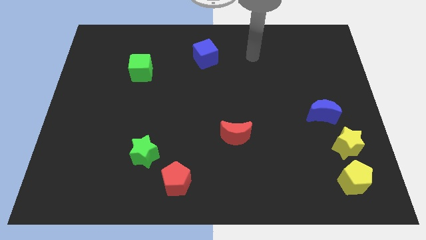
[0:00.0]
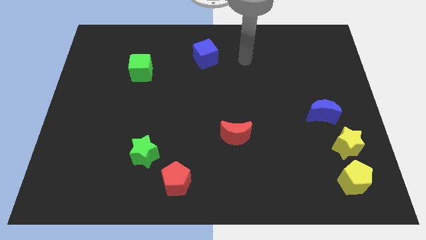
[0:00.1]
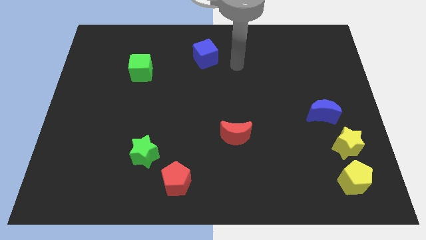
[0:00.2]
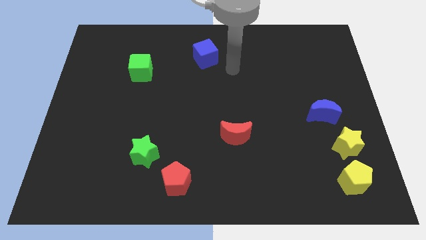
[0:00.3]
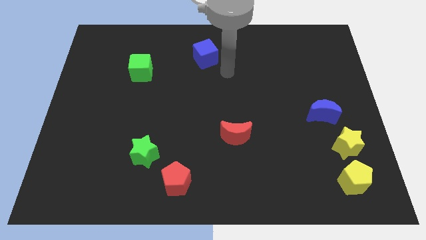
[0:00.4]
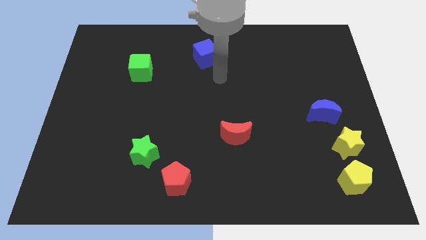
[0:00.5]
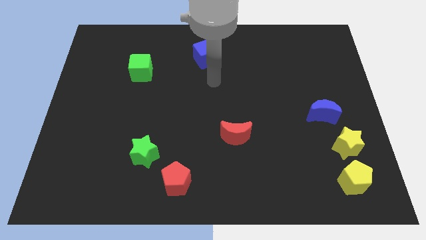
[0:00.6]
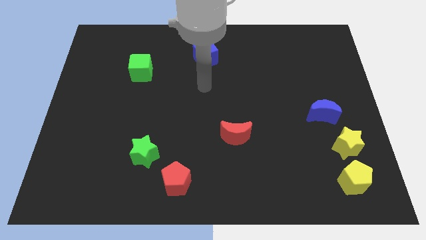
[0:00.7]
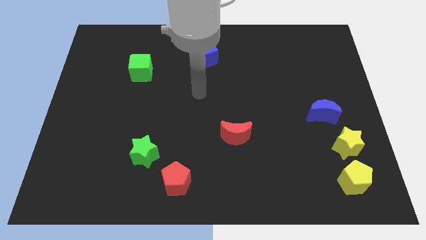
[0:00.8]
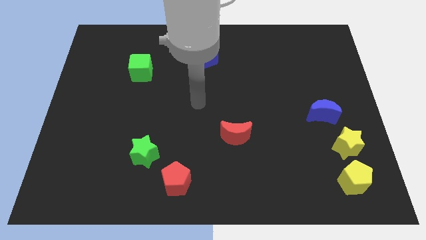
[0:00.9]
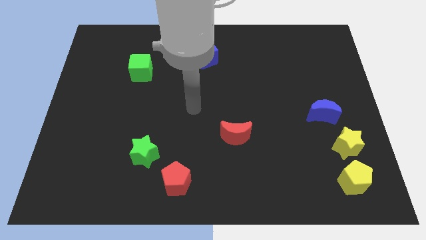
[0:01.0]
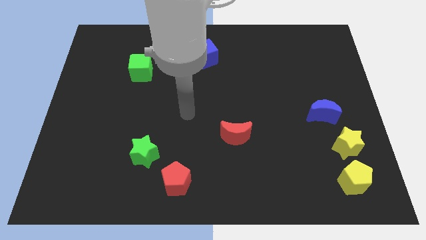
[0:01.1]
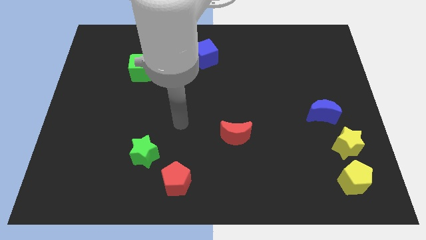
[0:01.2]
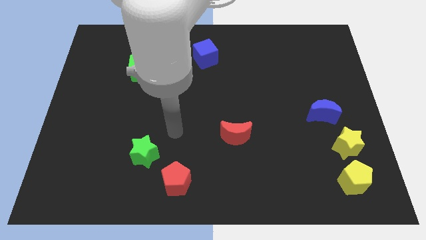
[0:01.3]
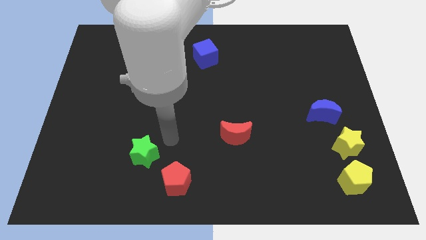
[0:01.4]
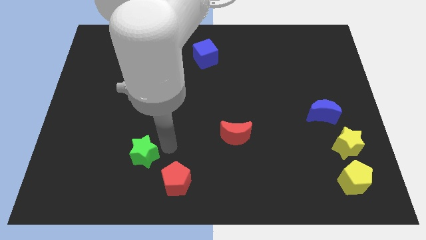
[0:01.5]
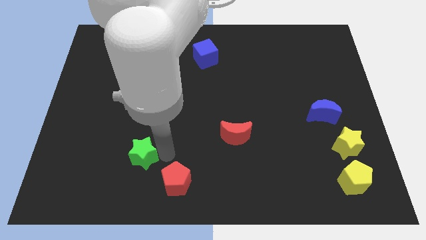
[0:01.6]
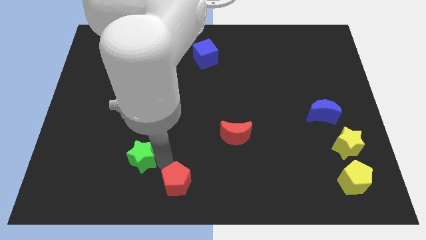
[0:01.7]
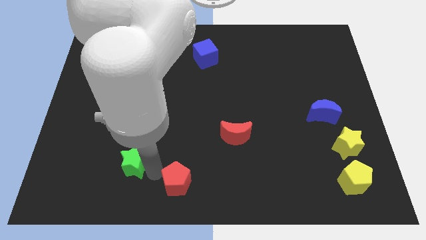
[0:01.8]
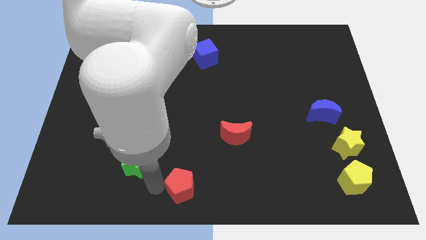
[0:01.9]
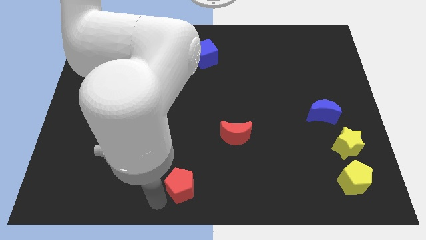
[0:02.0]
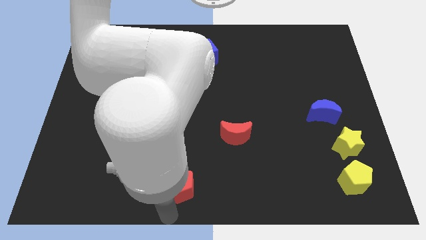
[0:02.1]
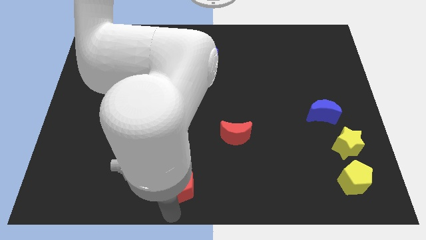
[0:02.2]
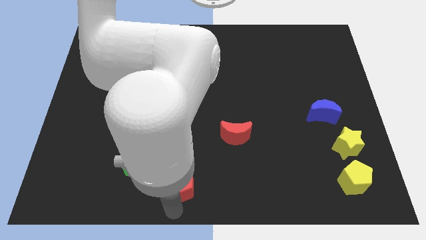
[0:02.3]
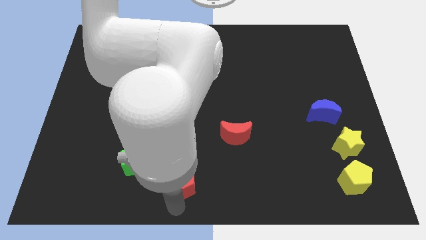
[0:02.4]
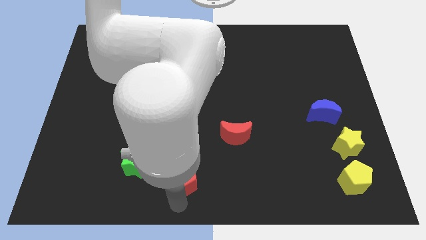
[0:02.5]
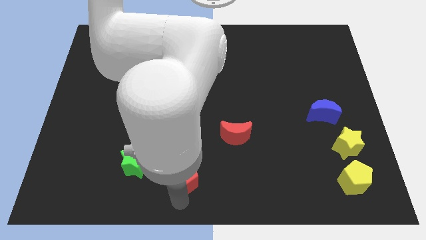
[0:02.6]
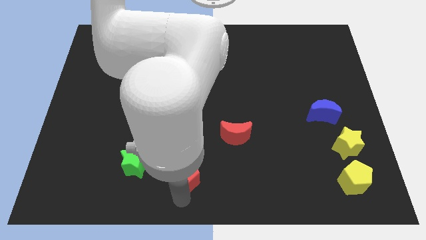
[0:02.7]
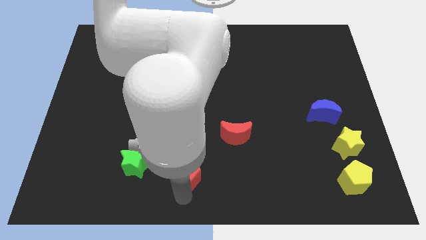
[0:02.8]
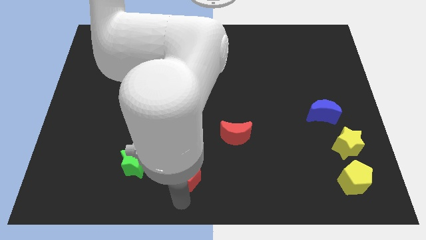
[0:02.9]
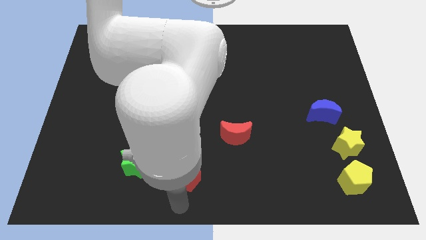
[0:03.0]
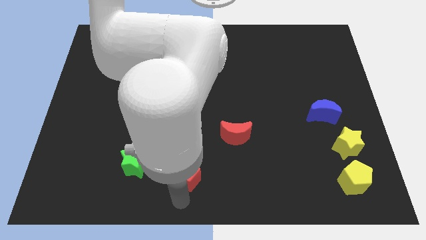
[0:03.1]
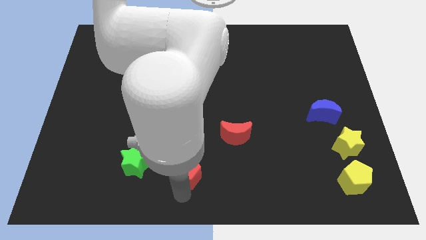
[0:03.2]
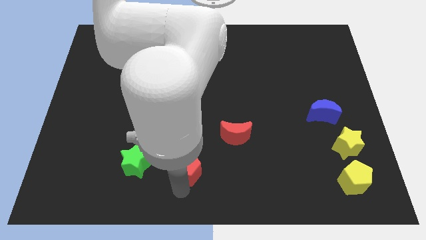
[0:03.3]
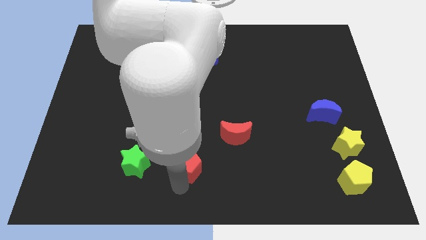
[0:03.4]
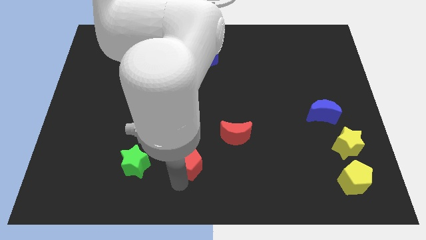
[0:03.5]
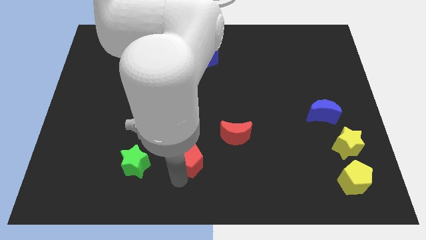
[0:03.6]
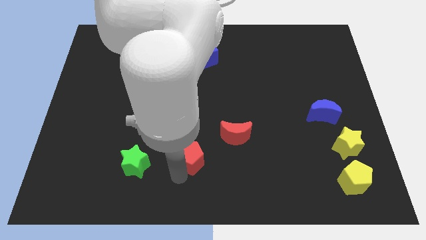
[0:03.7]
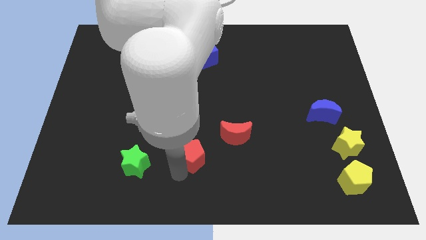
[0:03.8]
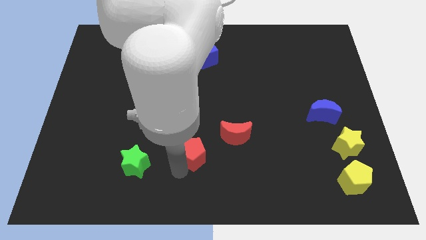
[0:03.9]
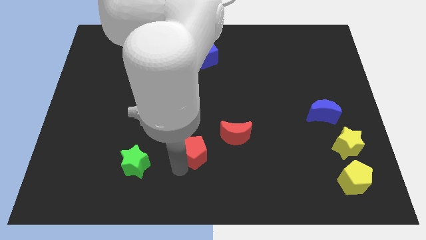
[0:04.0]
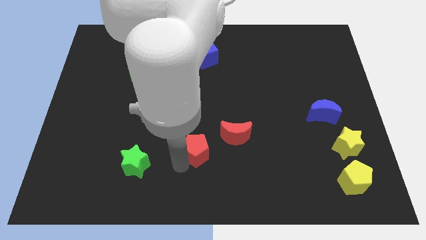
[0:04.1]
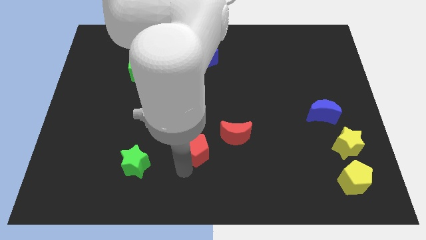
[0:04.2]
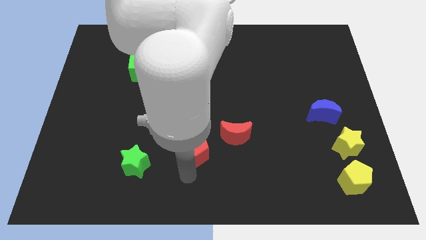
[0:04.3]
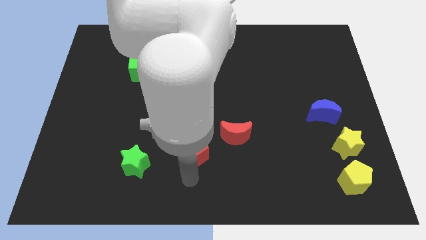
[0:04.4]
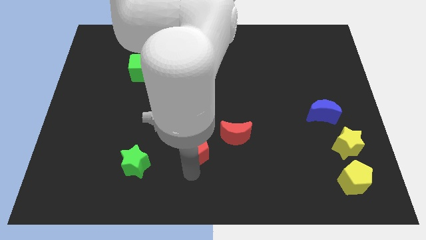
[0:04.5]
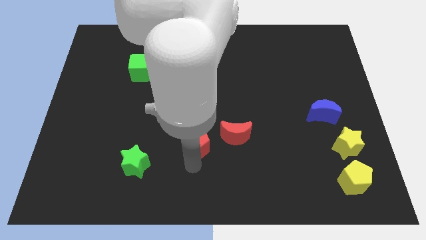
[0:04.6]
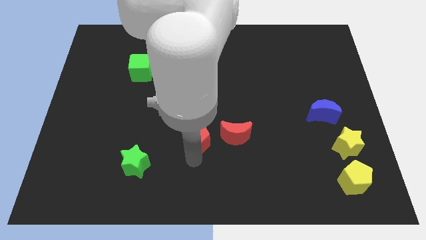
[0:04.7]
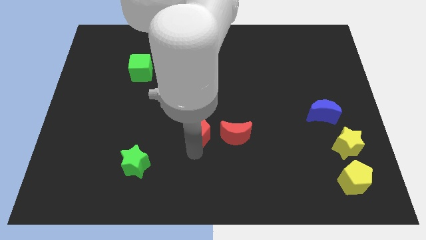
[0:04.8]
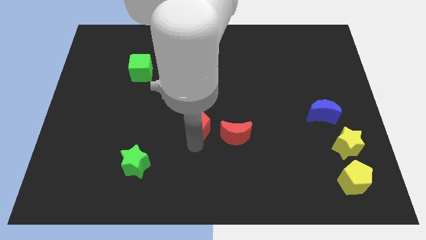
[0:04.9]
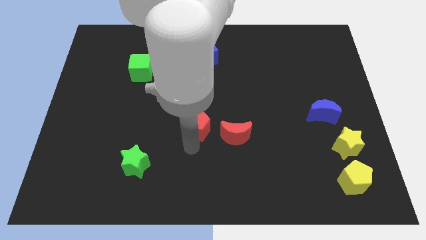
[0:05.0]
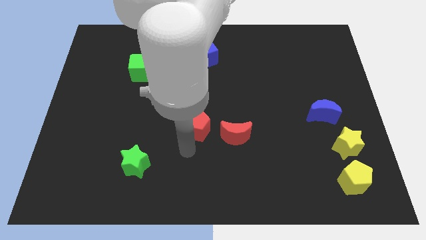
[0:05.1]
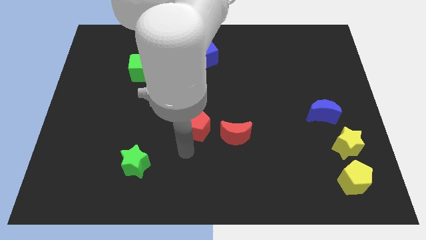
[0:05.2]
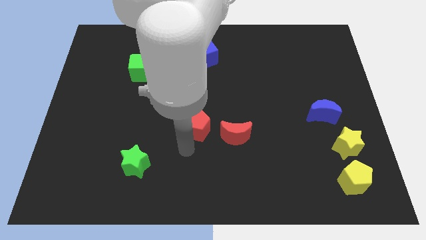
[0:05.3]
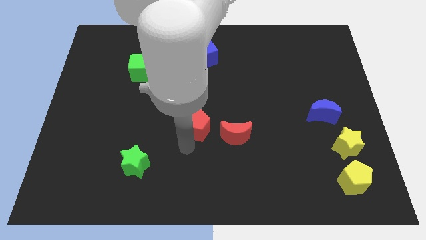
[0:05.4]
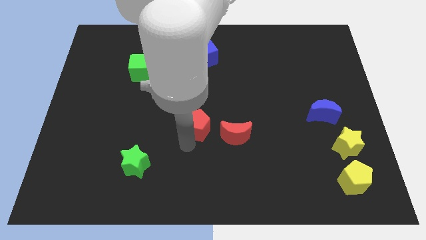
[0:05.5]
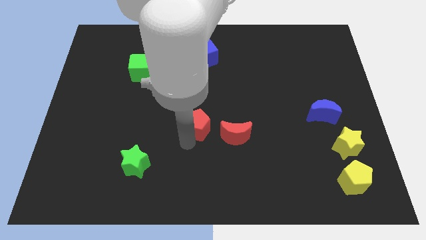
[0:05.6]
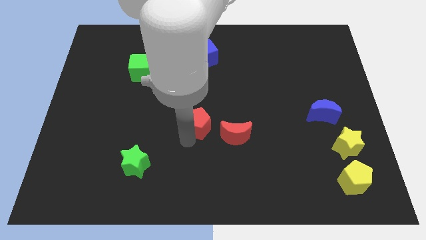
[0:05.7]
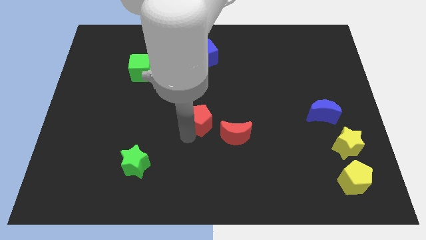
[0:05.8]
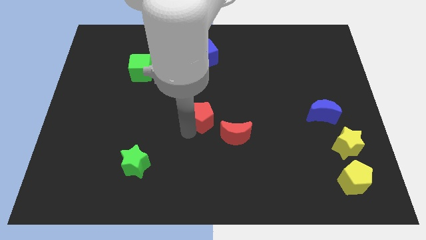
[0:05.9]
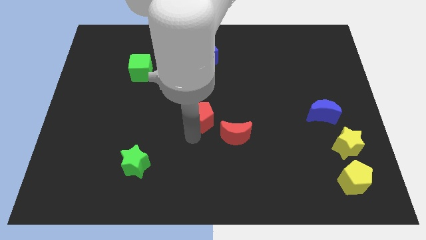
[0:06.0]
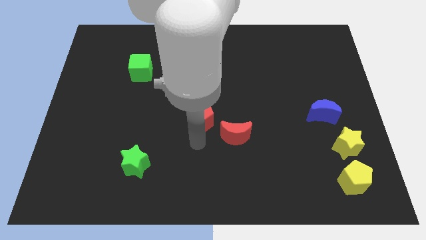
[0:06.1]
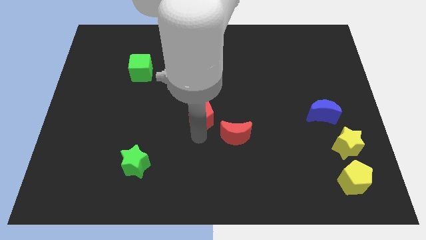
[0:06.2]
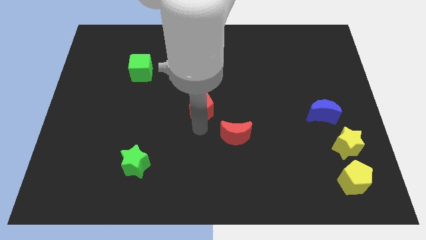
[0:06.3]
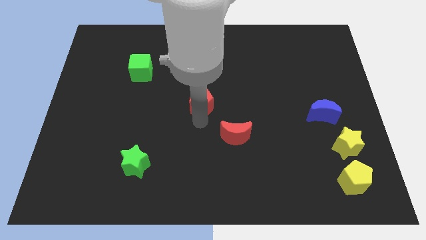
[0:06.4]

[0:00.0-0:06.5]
push the red pentagon below the blue cube

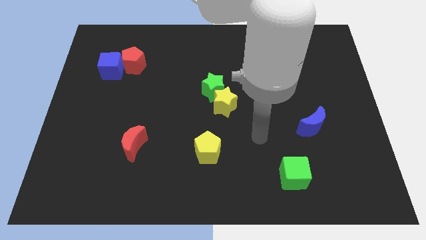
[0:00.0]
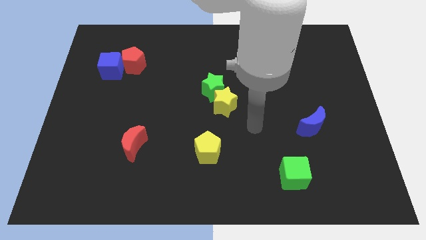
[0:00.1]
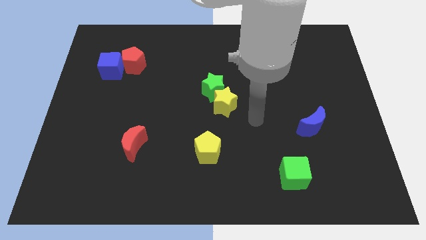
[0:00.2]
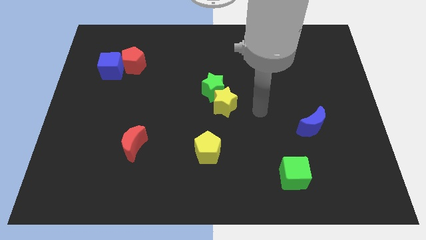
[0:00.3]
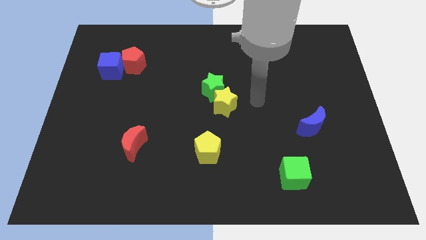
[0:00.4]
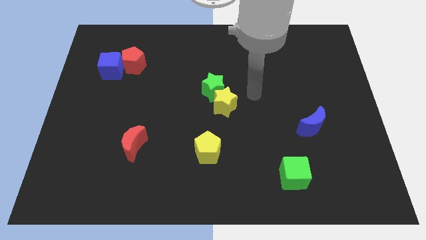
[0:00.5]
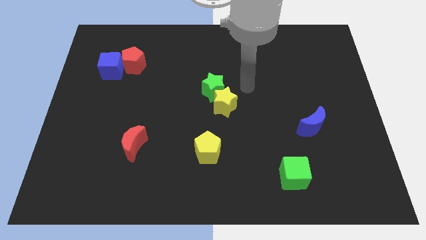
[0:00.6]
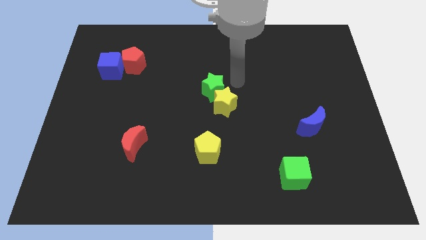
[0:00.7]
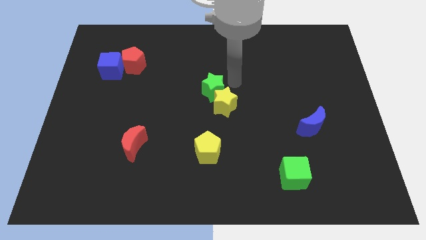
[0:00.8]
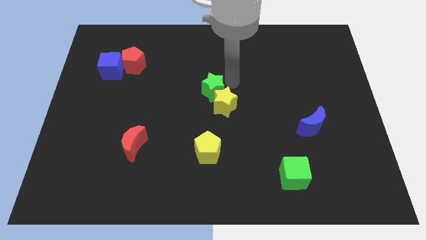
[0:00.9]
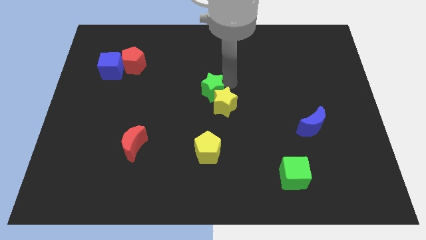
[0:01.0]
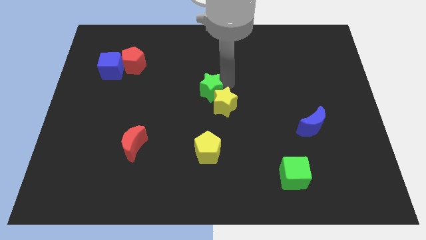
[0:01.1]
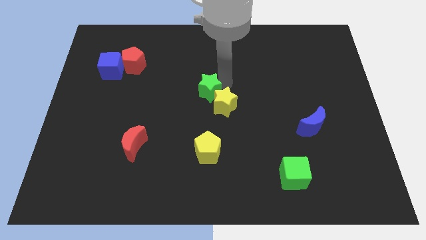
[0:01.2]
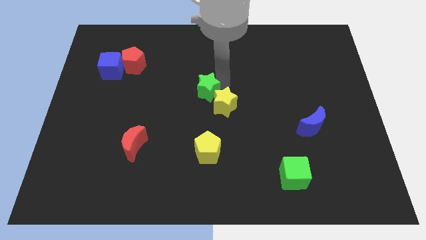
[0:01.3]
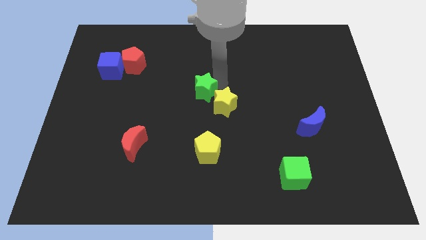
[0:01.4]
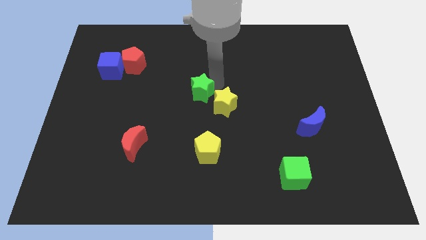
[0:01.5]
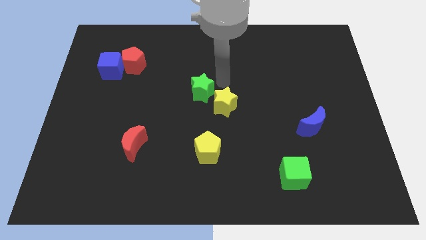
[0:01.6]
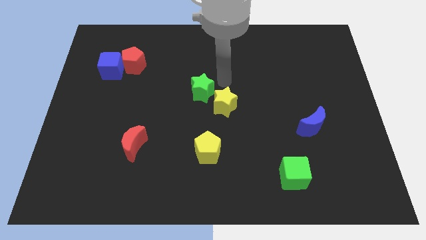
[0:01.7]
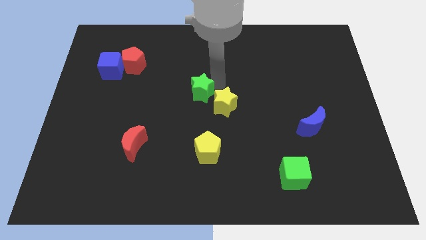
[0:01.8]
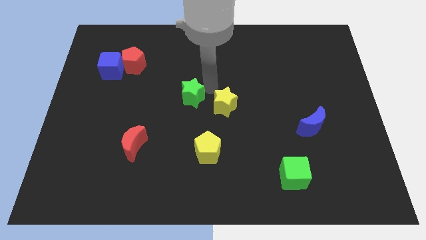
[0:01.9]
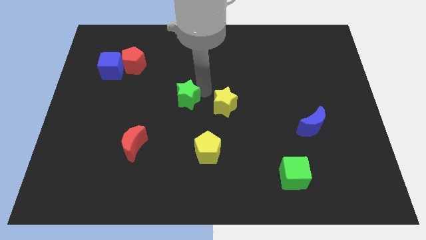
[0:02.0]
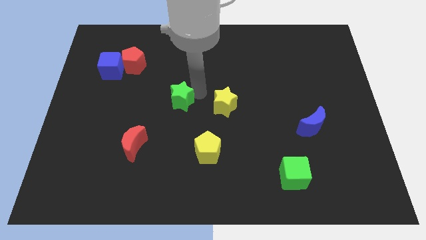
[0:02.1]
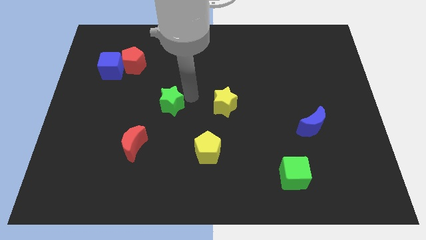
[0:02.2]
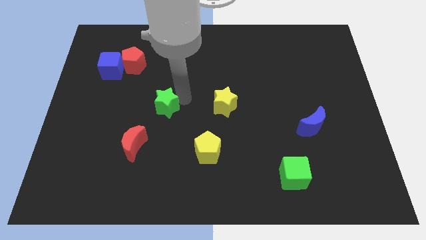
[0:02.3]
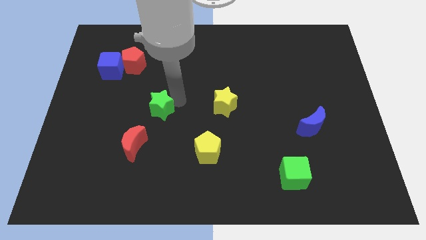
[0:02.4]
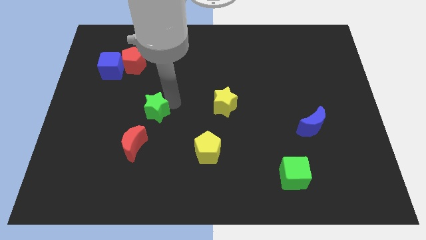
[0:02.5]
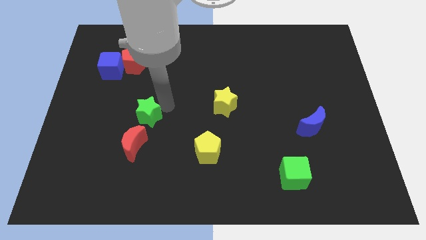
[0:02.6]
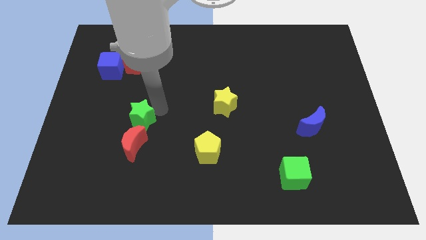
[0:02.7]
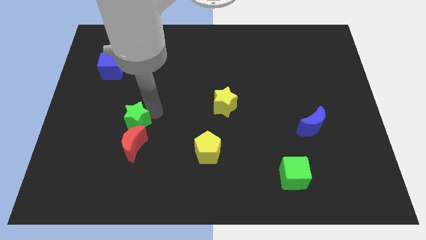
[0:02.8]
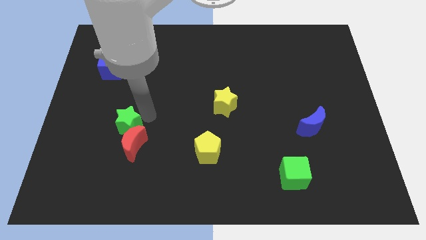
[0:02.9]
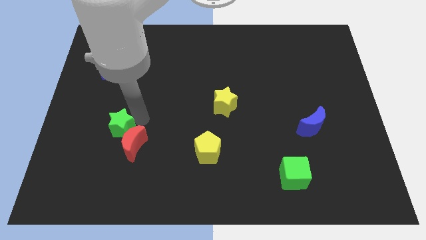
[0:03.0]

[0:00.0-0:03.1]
push the green star just left of the red moon
